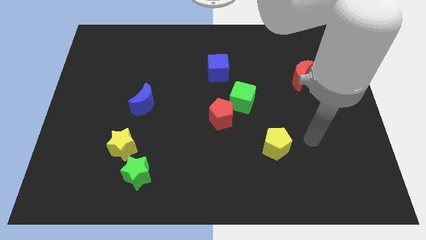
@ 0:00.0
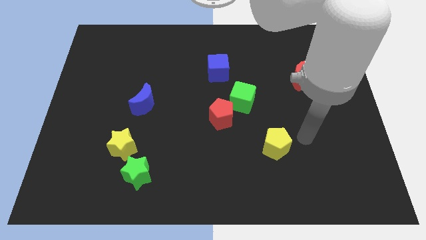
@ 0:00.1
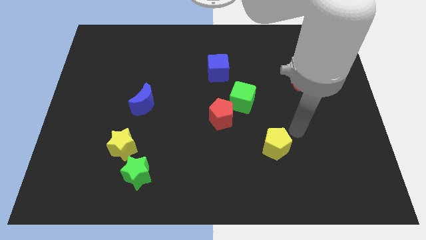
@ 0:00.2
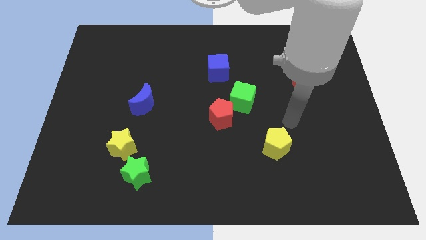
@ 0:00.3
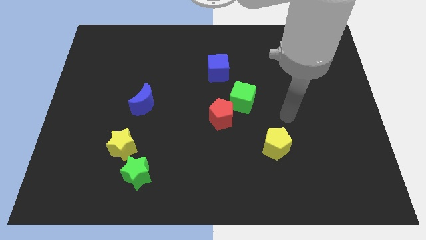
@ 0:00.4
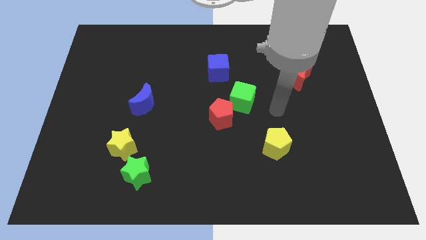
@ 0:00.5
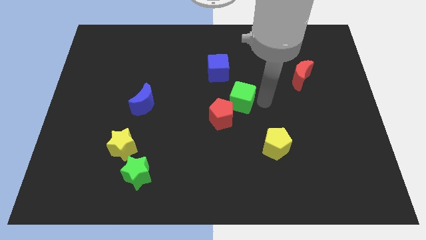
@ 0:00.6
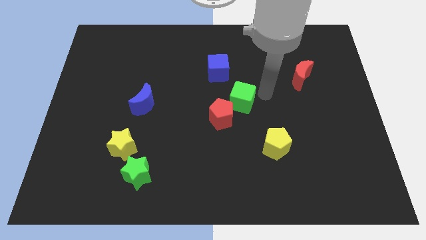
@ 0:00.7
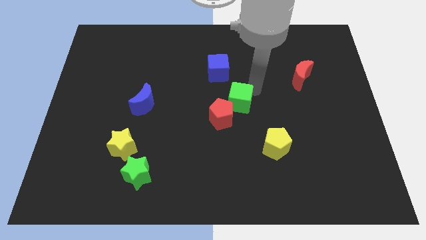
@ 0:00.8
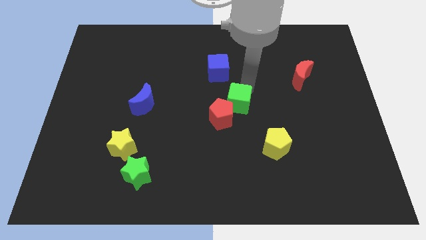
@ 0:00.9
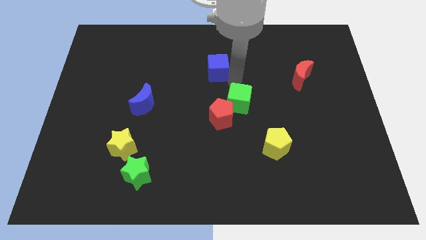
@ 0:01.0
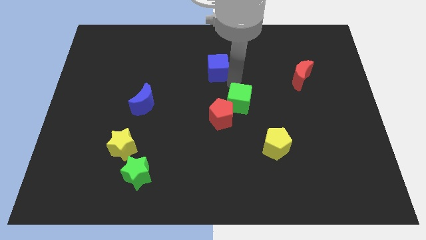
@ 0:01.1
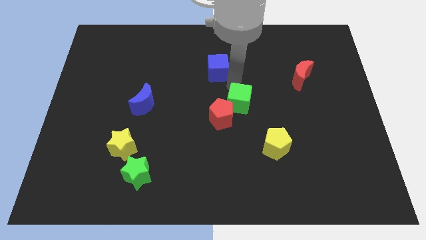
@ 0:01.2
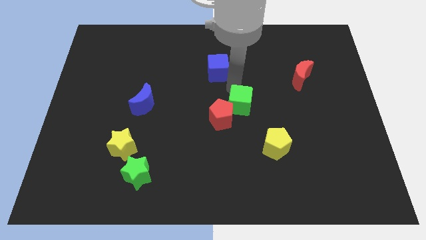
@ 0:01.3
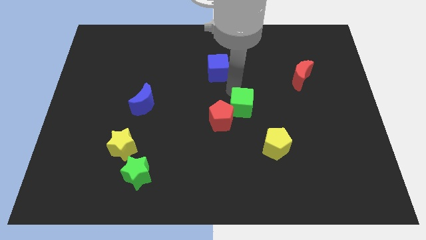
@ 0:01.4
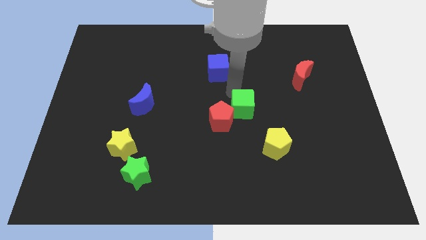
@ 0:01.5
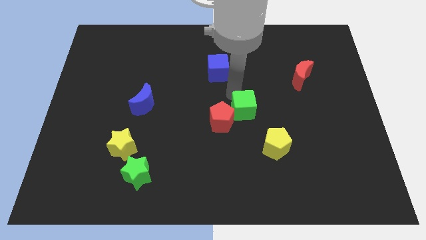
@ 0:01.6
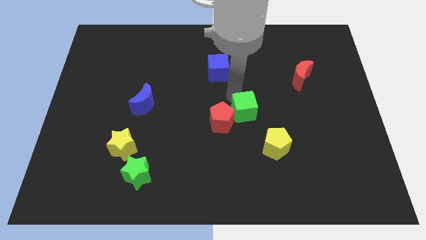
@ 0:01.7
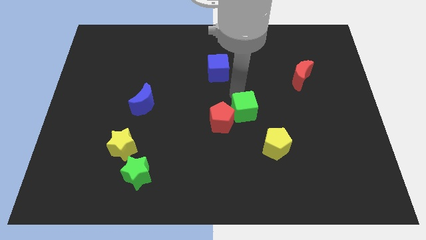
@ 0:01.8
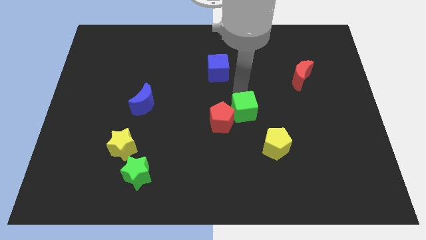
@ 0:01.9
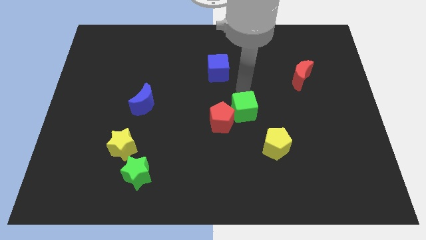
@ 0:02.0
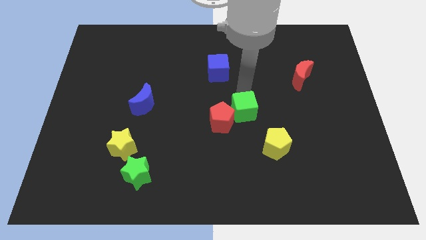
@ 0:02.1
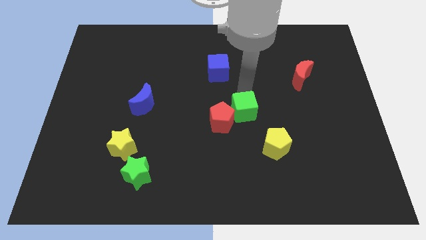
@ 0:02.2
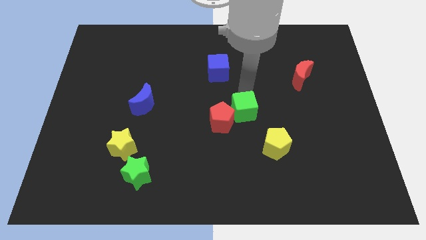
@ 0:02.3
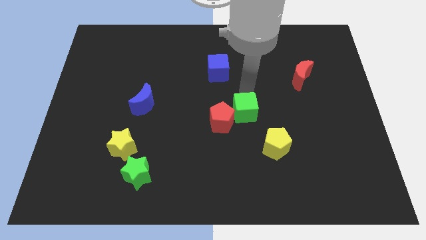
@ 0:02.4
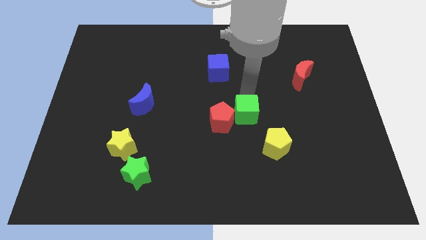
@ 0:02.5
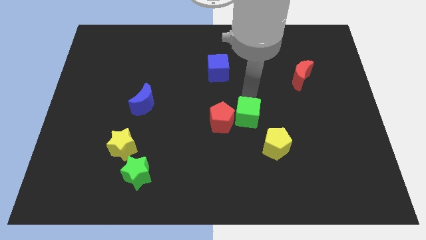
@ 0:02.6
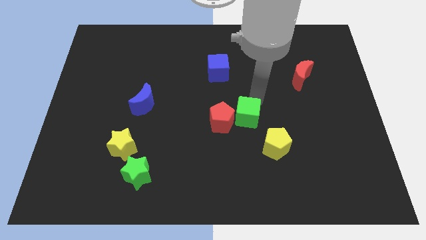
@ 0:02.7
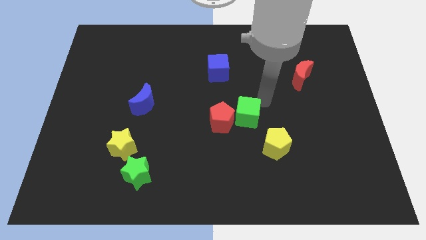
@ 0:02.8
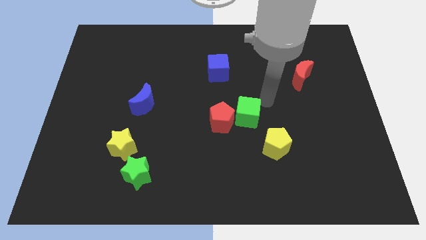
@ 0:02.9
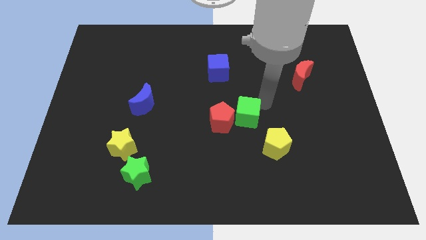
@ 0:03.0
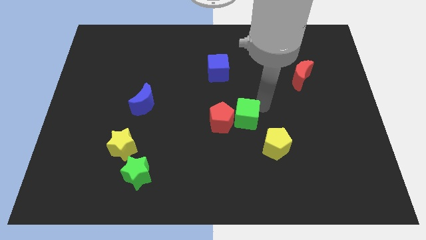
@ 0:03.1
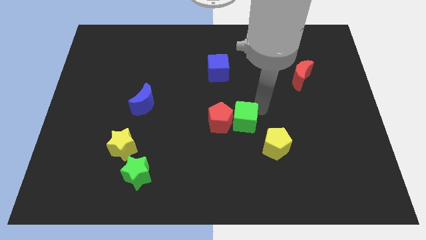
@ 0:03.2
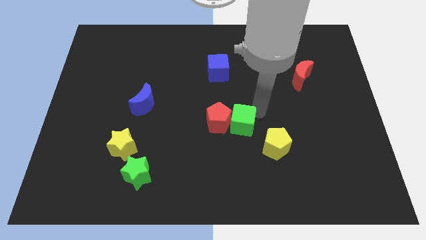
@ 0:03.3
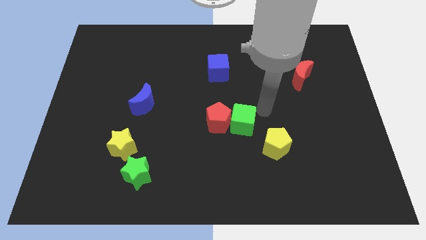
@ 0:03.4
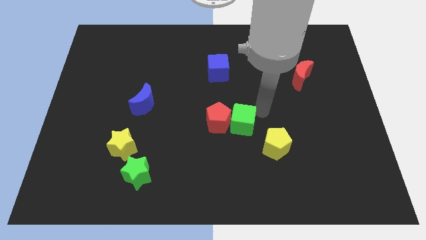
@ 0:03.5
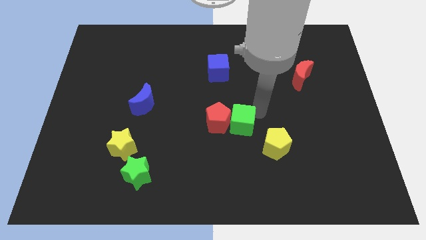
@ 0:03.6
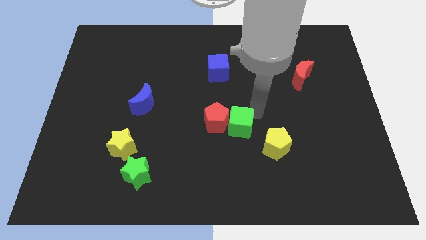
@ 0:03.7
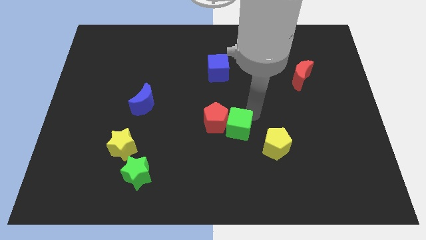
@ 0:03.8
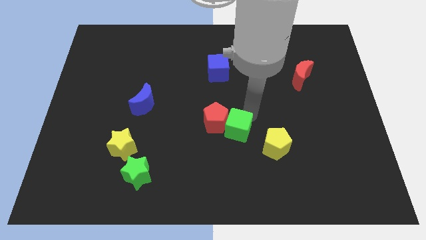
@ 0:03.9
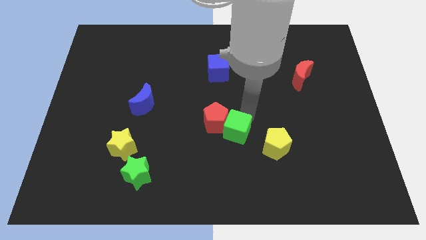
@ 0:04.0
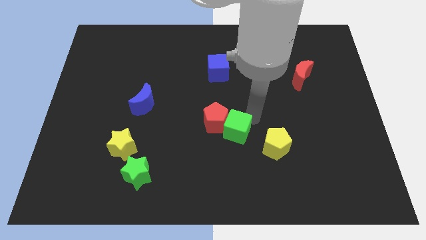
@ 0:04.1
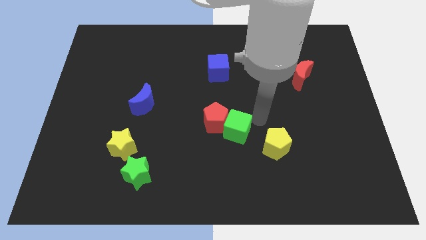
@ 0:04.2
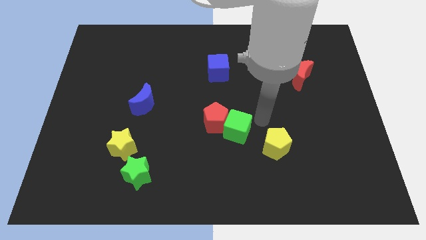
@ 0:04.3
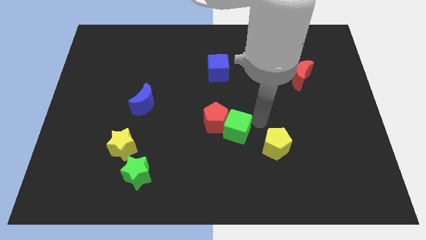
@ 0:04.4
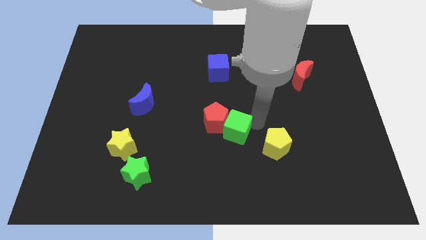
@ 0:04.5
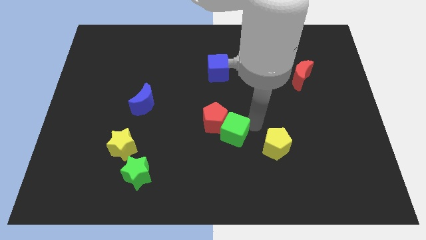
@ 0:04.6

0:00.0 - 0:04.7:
move the green cube a little downwards and then to the left

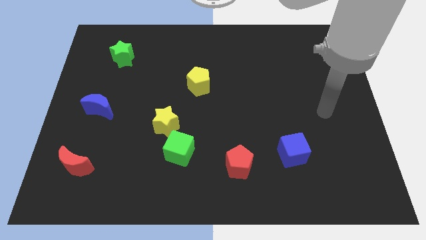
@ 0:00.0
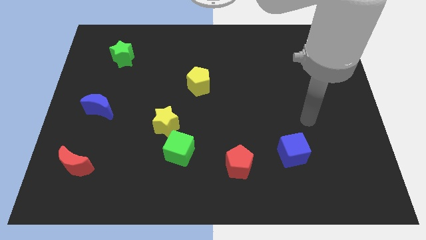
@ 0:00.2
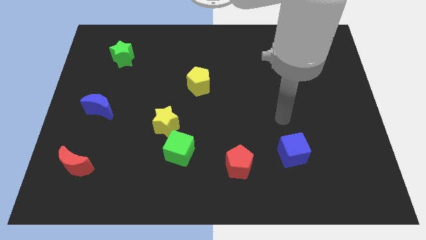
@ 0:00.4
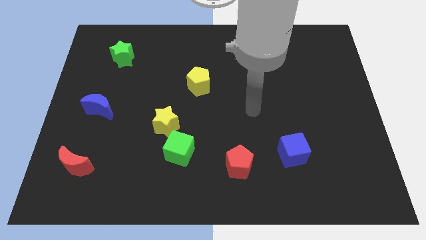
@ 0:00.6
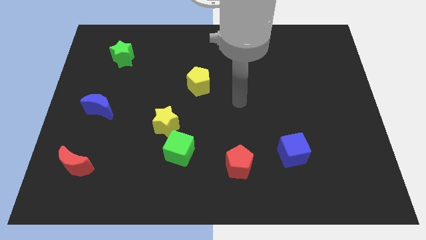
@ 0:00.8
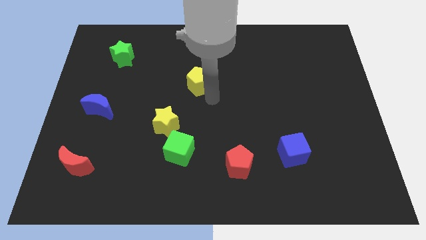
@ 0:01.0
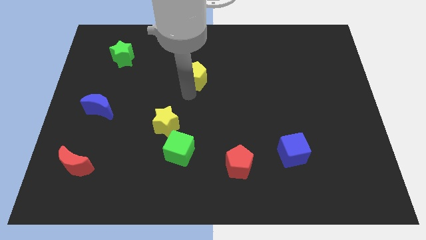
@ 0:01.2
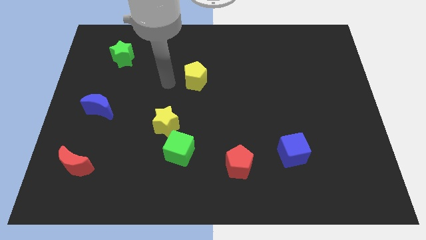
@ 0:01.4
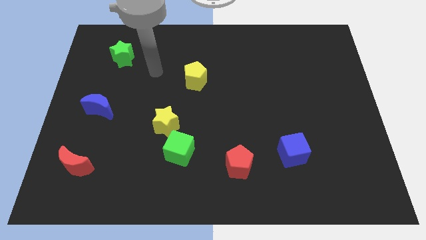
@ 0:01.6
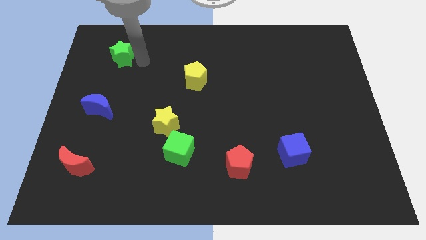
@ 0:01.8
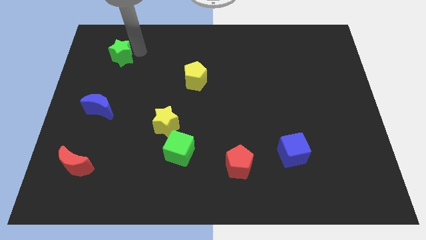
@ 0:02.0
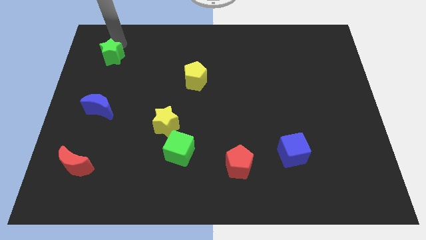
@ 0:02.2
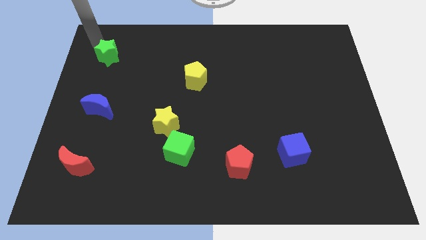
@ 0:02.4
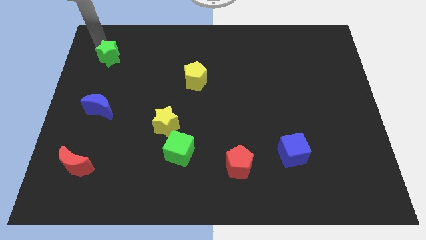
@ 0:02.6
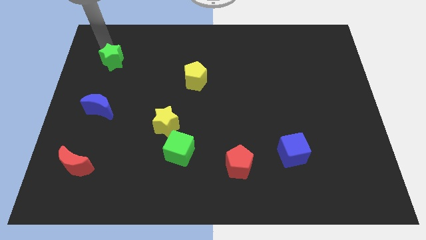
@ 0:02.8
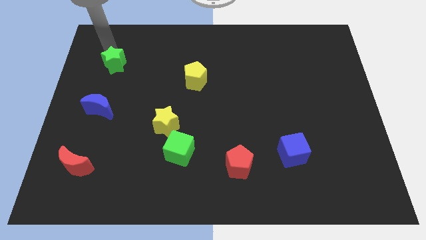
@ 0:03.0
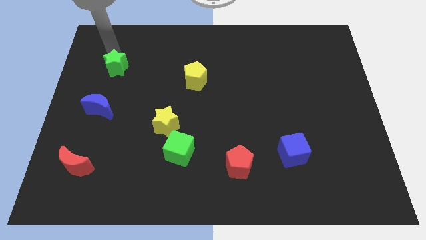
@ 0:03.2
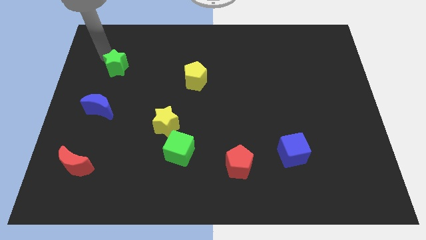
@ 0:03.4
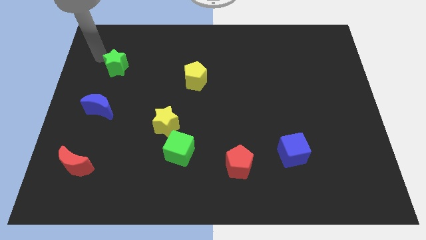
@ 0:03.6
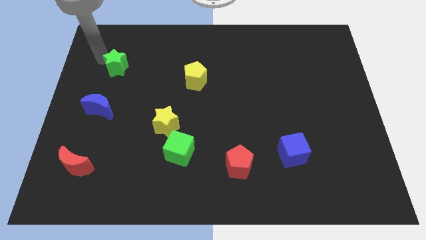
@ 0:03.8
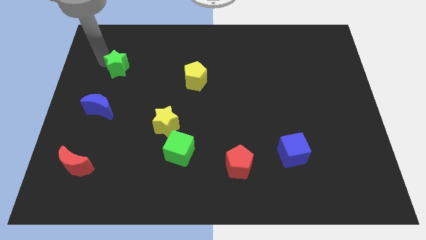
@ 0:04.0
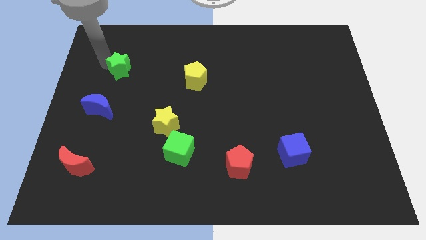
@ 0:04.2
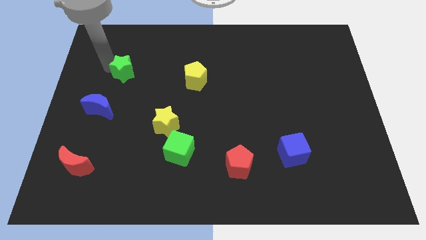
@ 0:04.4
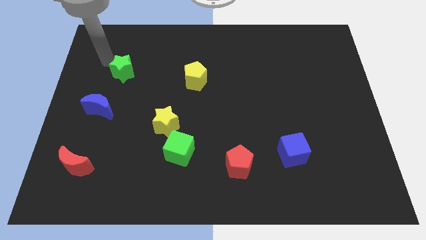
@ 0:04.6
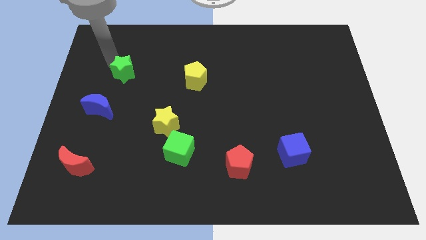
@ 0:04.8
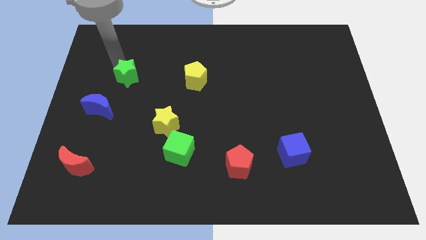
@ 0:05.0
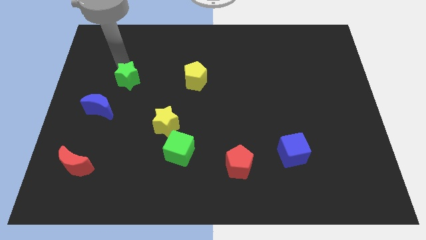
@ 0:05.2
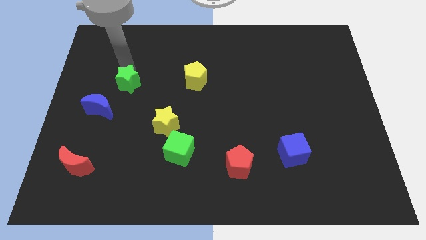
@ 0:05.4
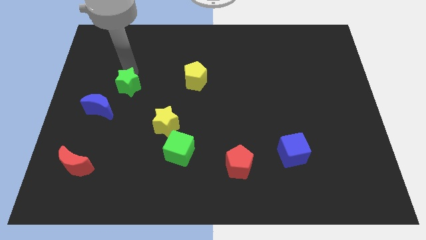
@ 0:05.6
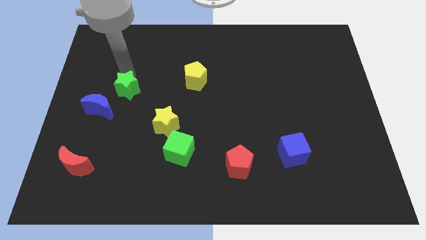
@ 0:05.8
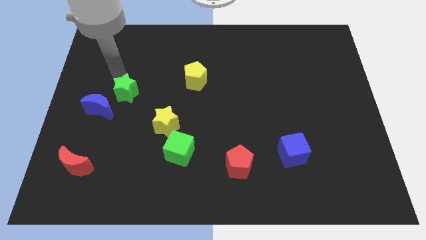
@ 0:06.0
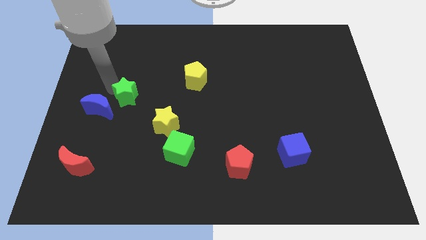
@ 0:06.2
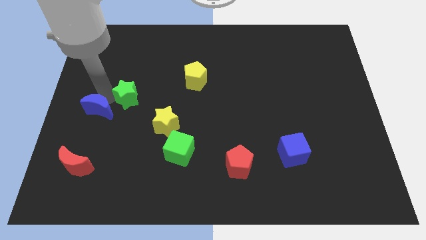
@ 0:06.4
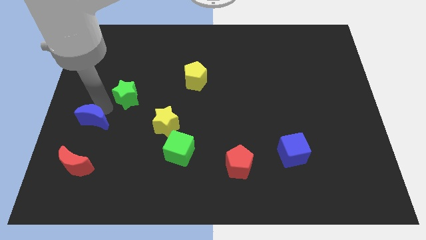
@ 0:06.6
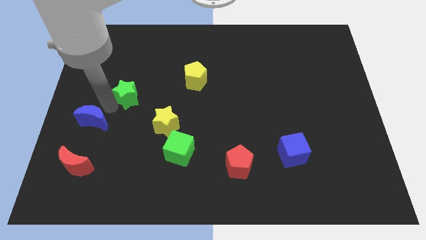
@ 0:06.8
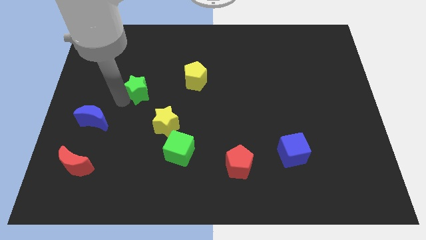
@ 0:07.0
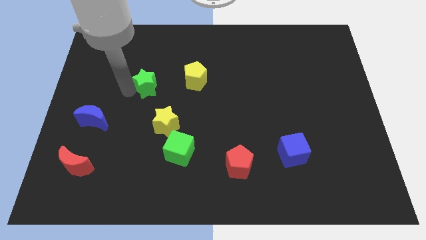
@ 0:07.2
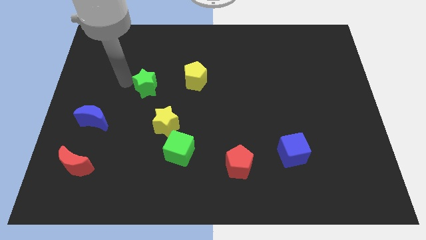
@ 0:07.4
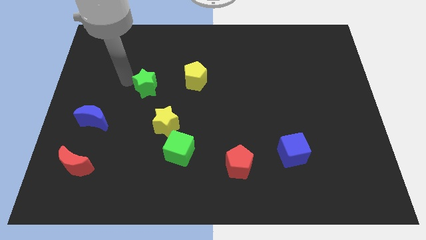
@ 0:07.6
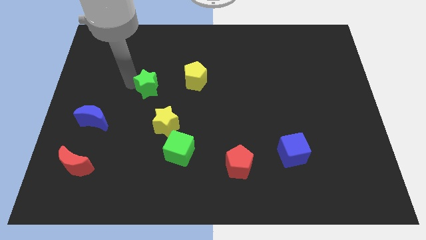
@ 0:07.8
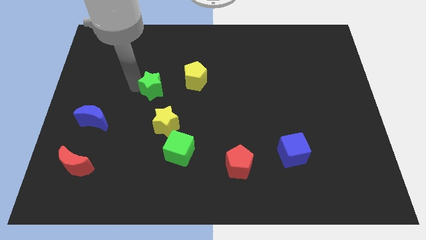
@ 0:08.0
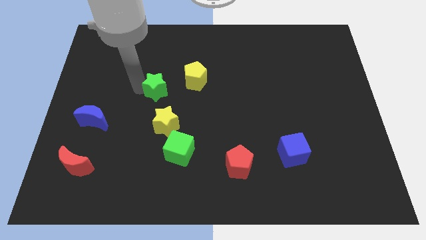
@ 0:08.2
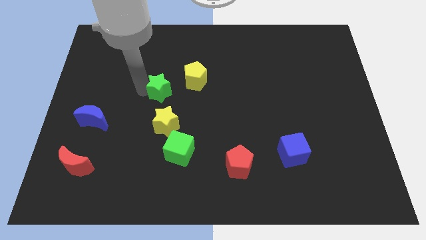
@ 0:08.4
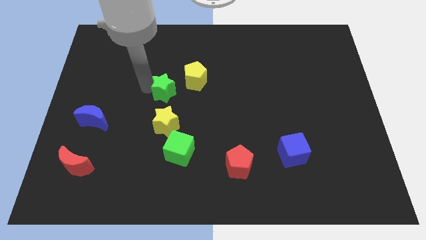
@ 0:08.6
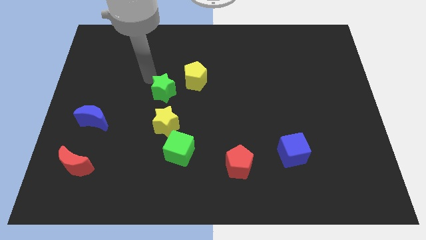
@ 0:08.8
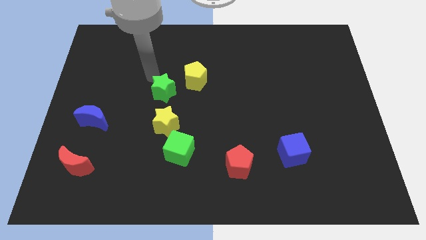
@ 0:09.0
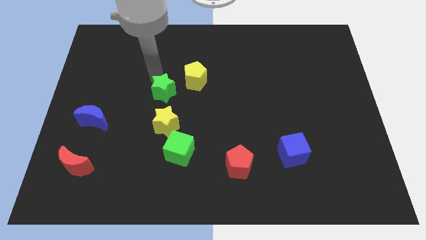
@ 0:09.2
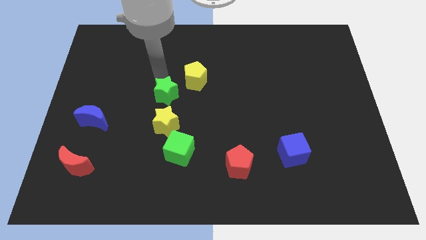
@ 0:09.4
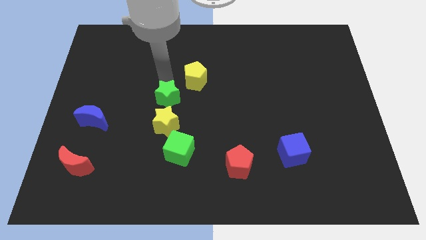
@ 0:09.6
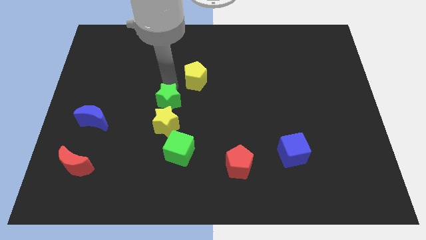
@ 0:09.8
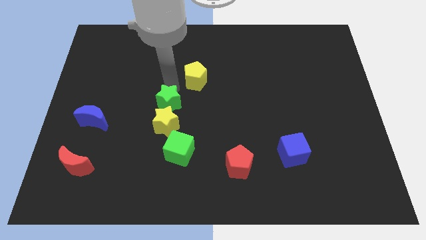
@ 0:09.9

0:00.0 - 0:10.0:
push the green star downwards and then to the right
